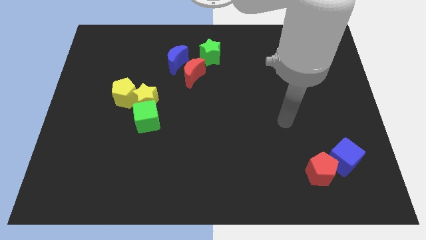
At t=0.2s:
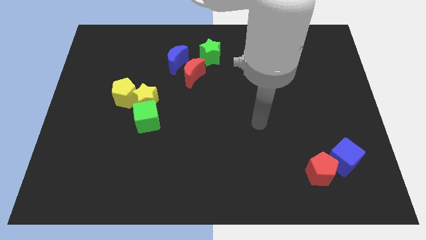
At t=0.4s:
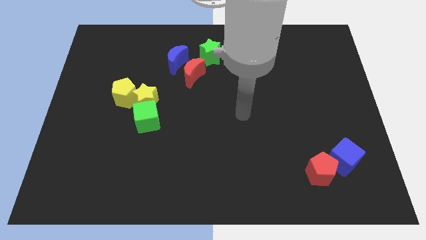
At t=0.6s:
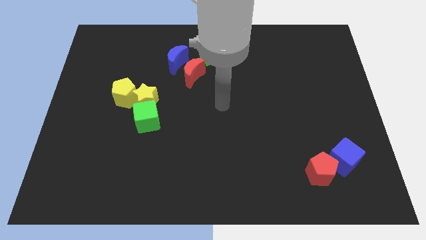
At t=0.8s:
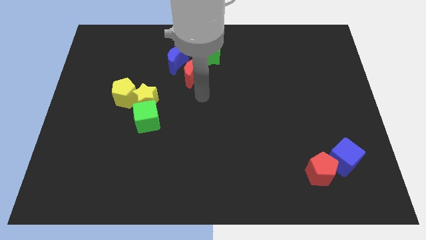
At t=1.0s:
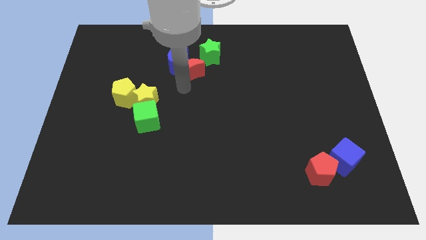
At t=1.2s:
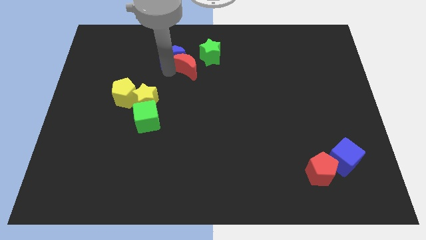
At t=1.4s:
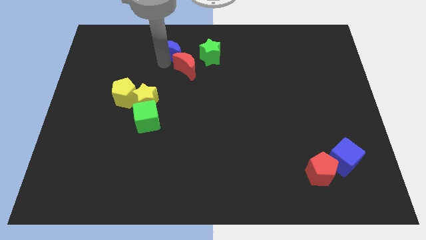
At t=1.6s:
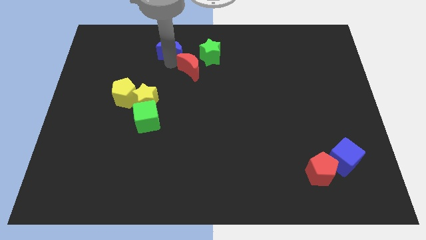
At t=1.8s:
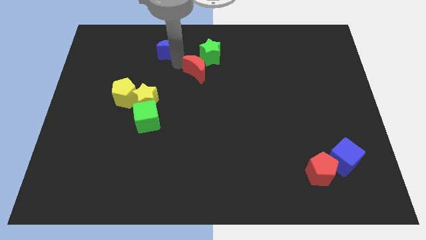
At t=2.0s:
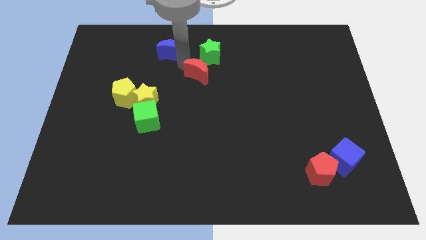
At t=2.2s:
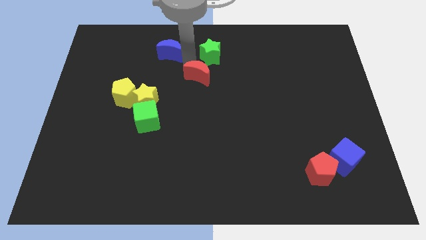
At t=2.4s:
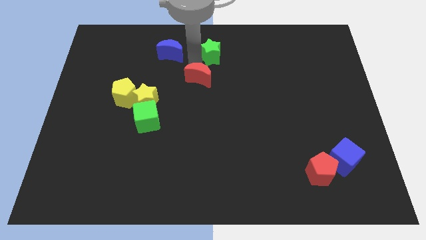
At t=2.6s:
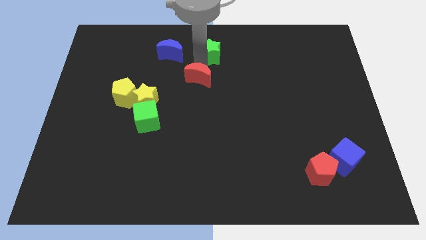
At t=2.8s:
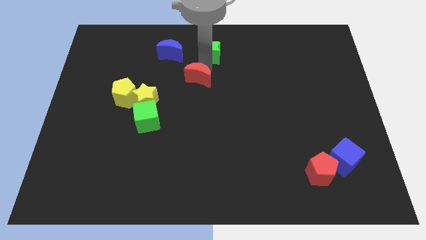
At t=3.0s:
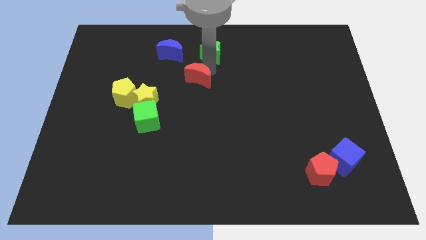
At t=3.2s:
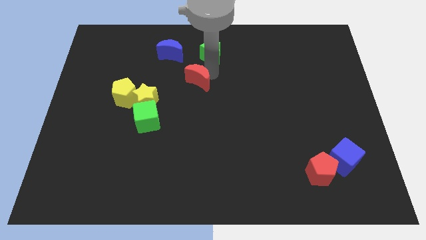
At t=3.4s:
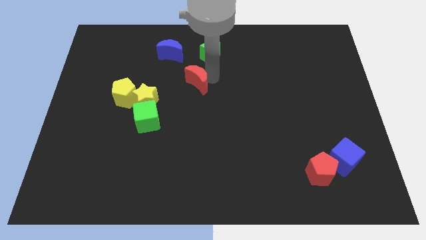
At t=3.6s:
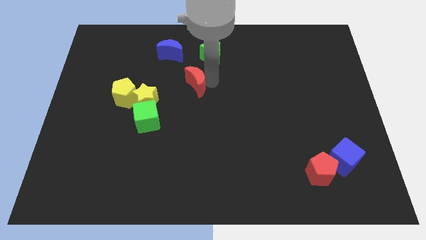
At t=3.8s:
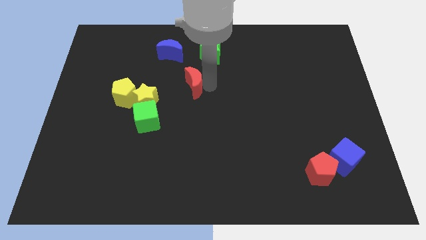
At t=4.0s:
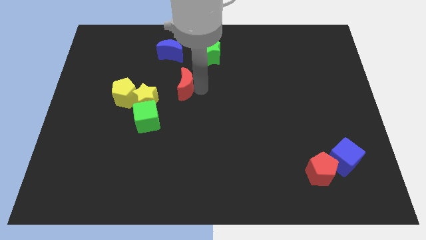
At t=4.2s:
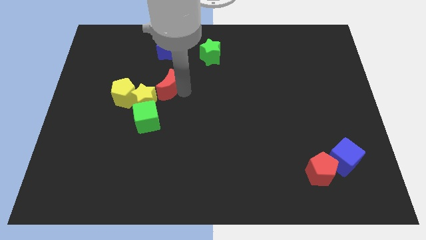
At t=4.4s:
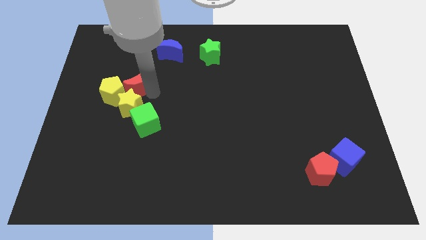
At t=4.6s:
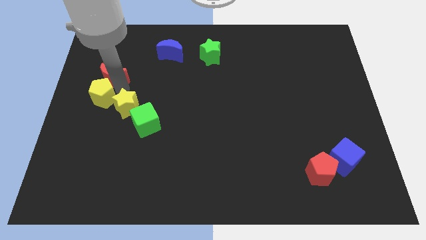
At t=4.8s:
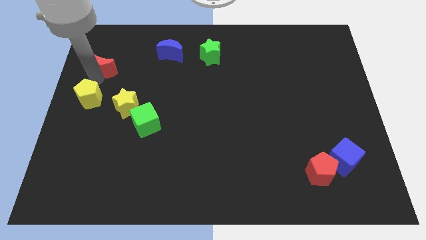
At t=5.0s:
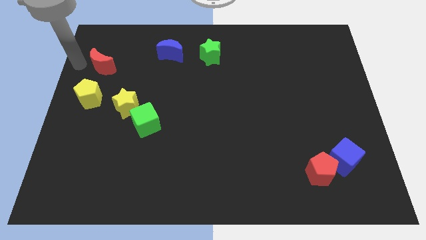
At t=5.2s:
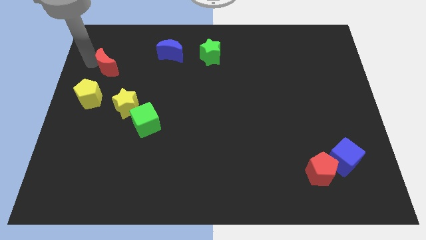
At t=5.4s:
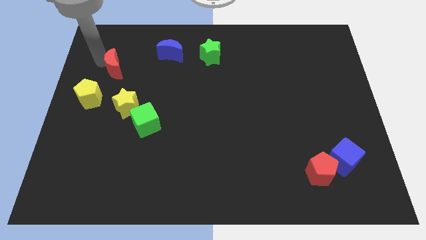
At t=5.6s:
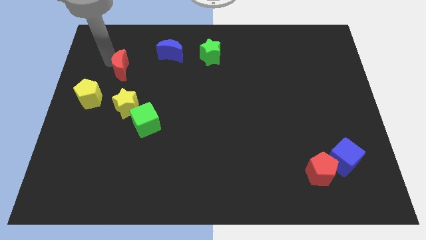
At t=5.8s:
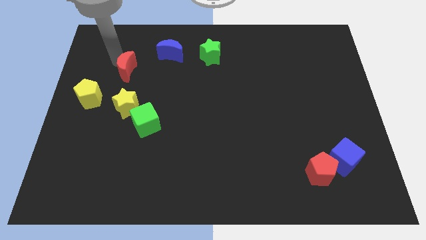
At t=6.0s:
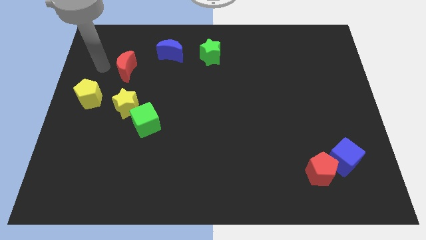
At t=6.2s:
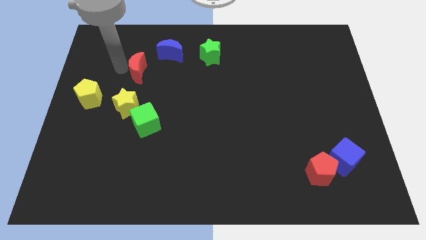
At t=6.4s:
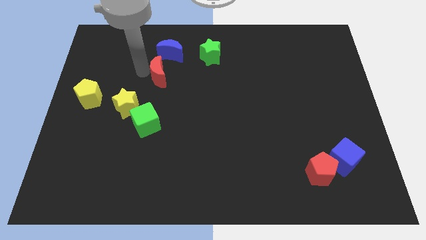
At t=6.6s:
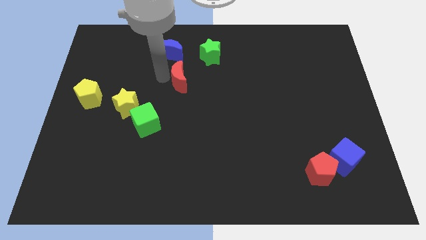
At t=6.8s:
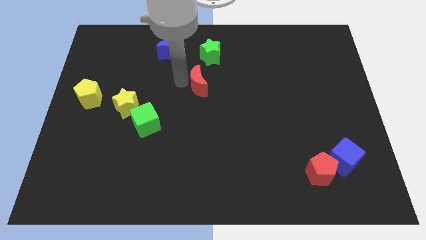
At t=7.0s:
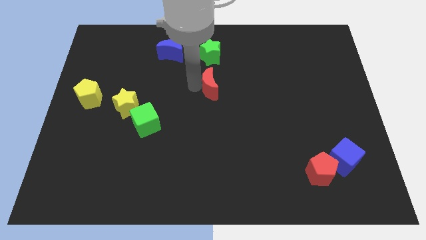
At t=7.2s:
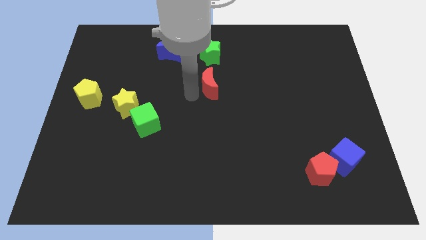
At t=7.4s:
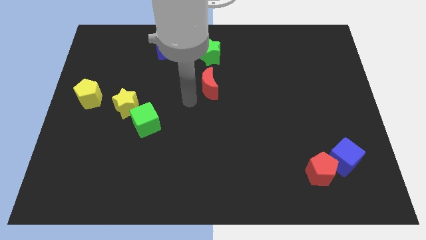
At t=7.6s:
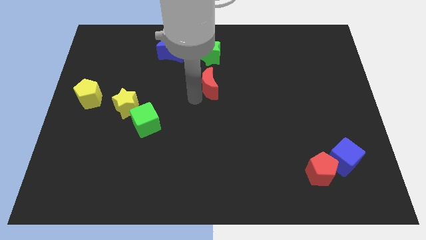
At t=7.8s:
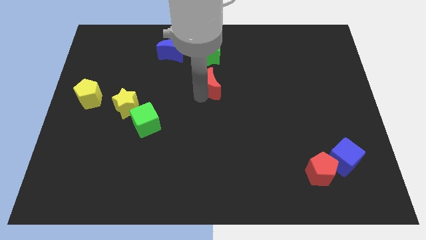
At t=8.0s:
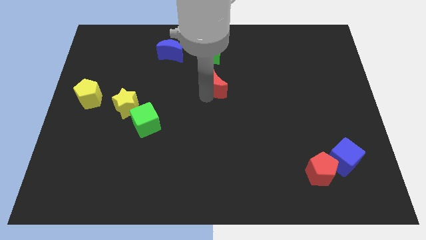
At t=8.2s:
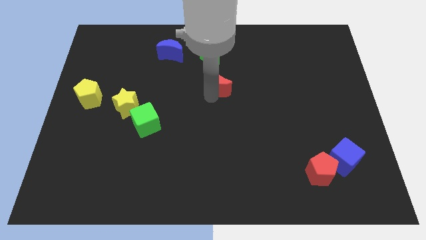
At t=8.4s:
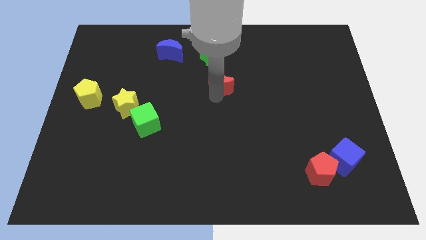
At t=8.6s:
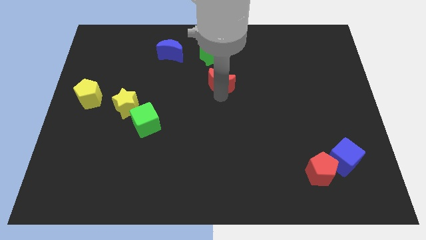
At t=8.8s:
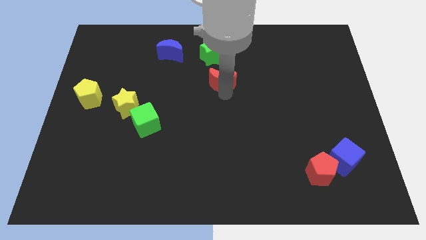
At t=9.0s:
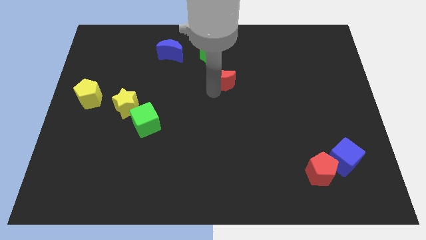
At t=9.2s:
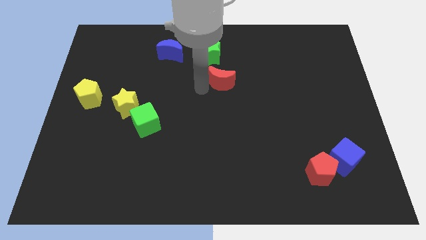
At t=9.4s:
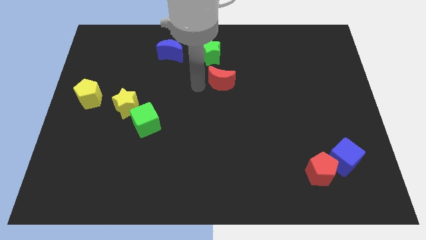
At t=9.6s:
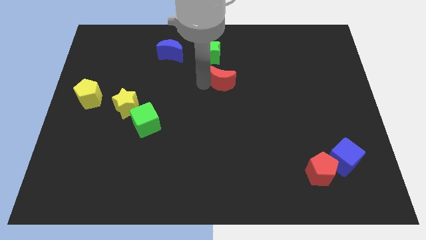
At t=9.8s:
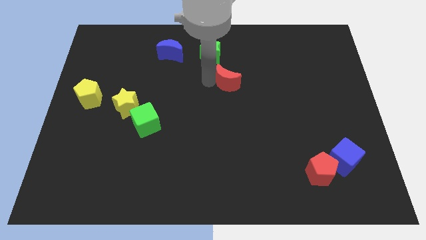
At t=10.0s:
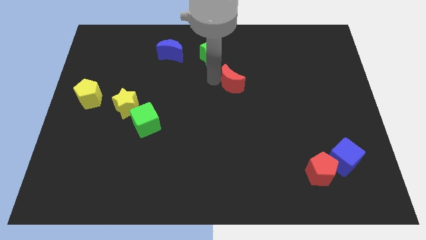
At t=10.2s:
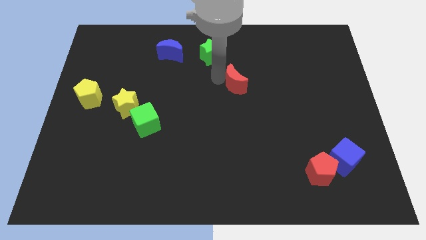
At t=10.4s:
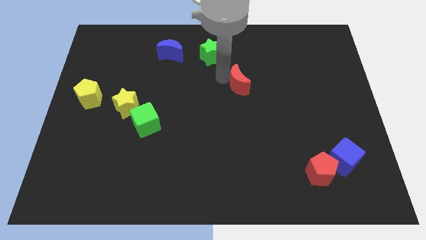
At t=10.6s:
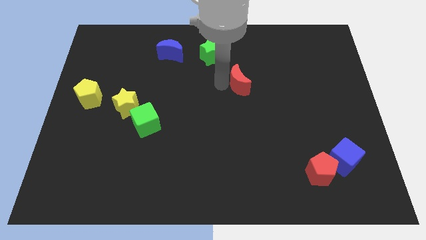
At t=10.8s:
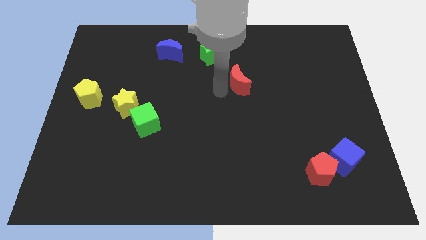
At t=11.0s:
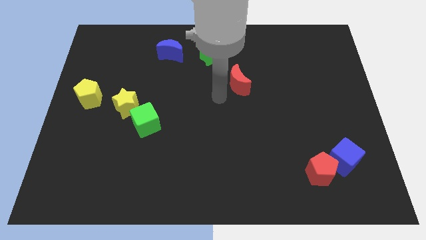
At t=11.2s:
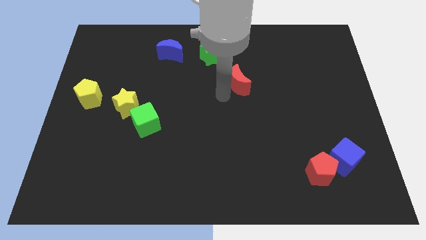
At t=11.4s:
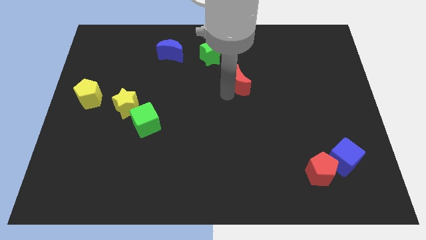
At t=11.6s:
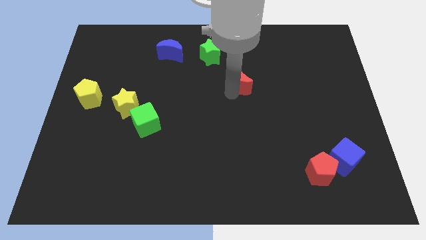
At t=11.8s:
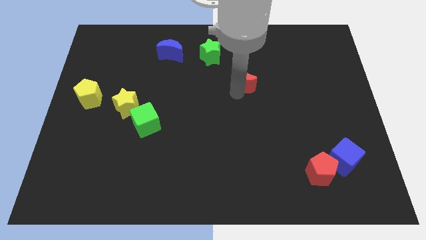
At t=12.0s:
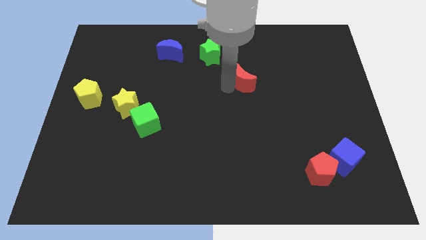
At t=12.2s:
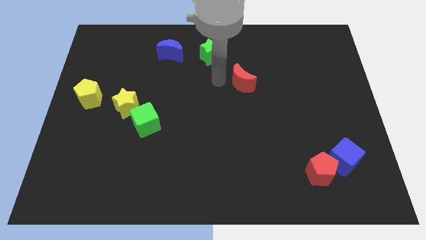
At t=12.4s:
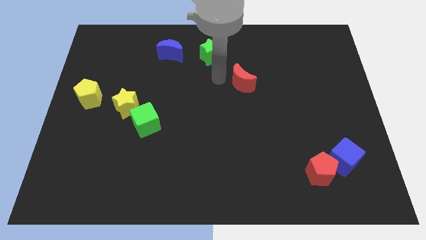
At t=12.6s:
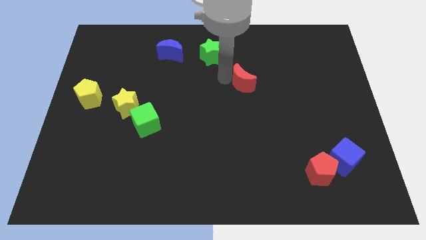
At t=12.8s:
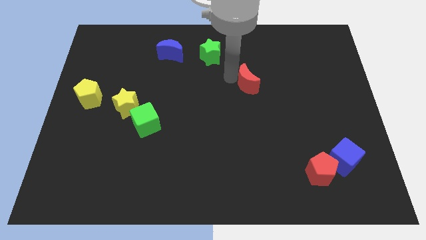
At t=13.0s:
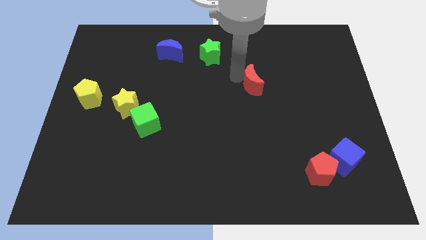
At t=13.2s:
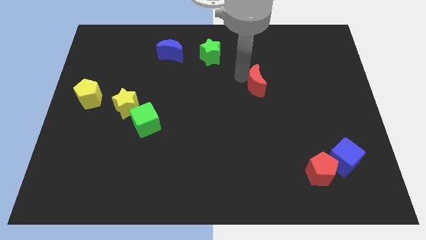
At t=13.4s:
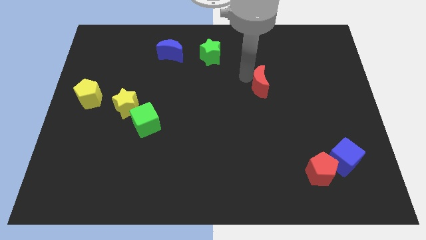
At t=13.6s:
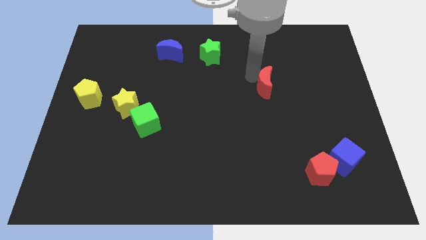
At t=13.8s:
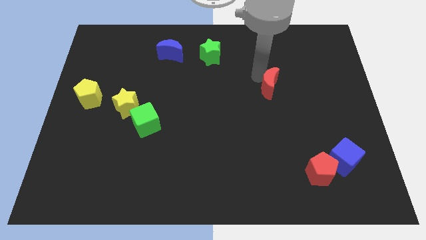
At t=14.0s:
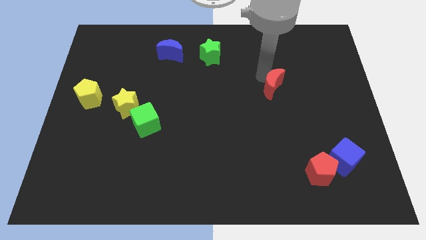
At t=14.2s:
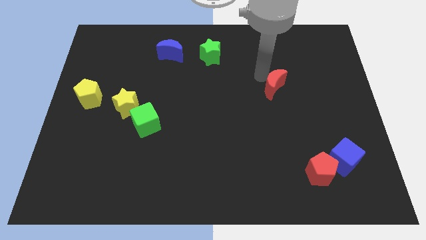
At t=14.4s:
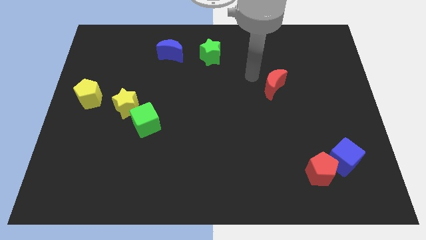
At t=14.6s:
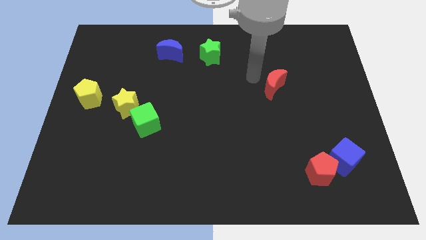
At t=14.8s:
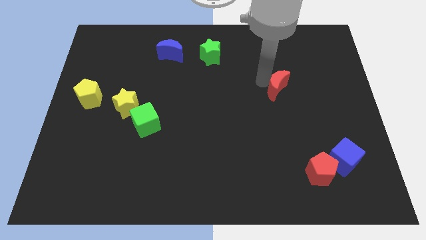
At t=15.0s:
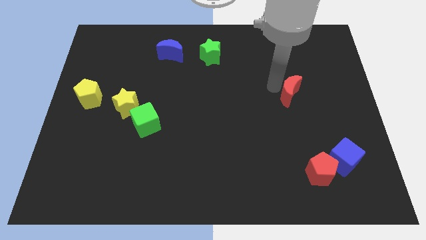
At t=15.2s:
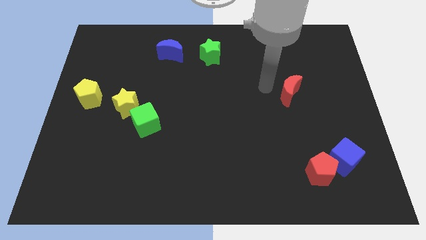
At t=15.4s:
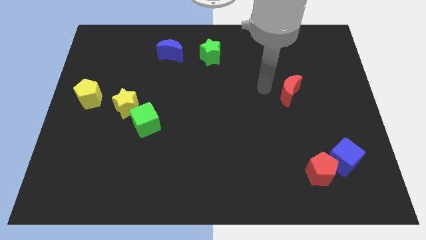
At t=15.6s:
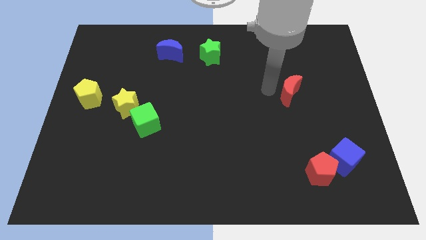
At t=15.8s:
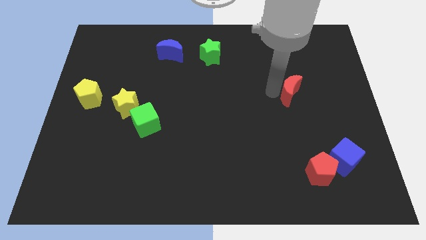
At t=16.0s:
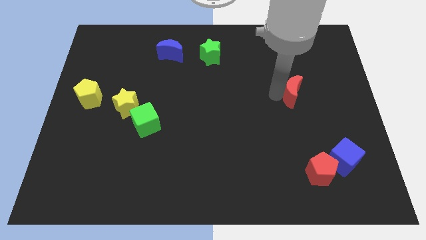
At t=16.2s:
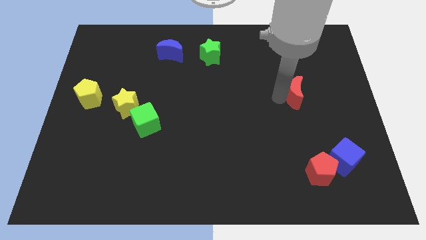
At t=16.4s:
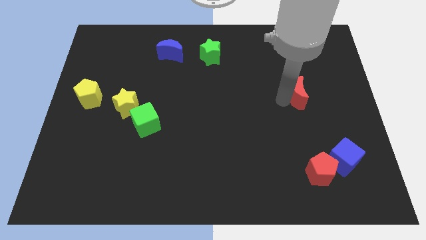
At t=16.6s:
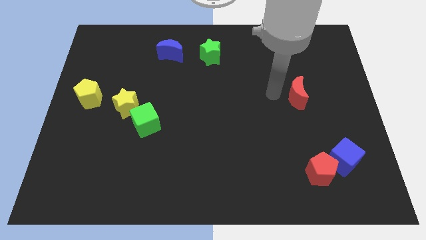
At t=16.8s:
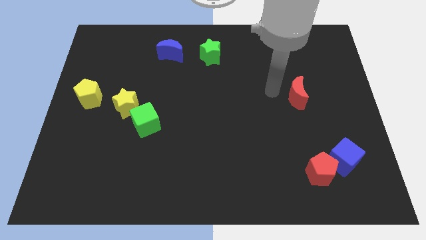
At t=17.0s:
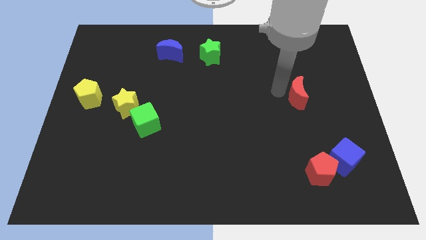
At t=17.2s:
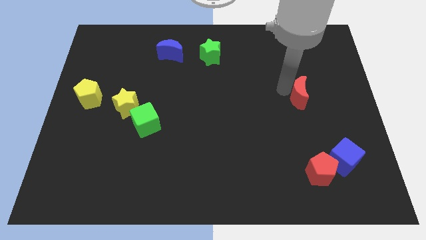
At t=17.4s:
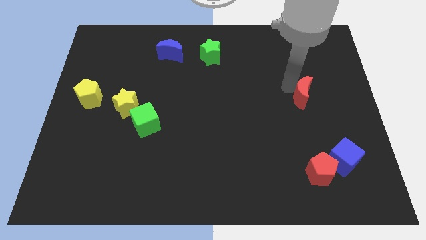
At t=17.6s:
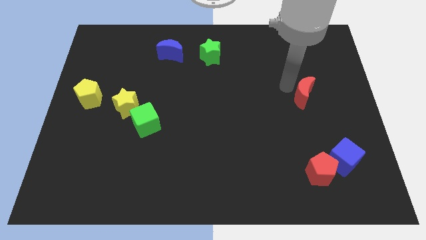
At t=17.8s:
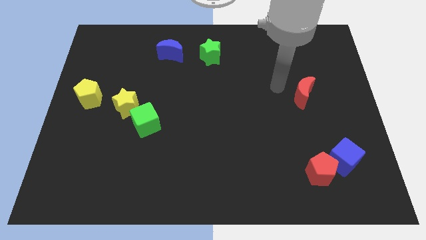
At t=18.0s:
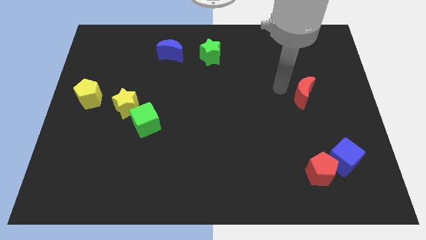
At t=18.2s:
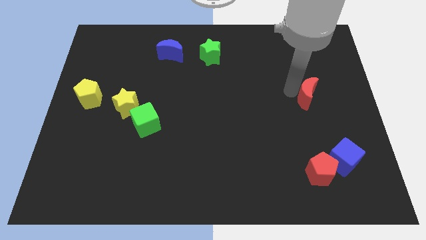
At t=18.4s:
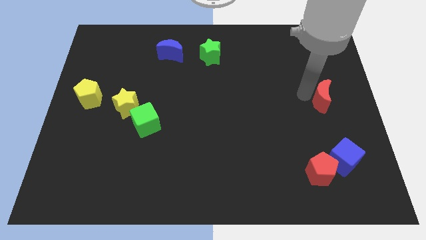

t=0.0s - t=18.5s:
move the red moon to the center right
